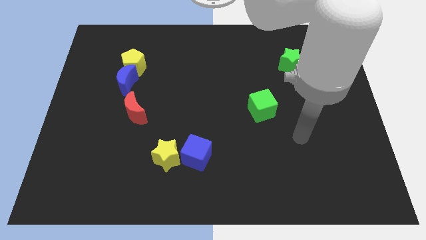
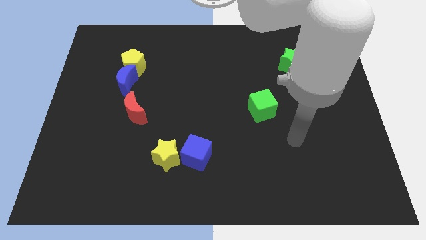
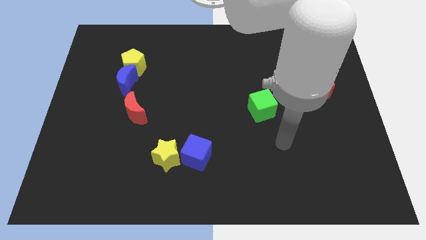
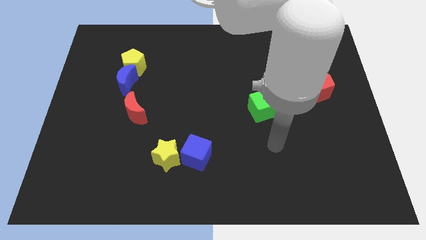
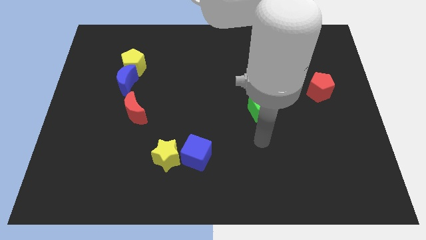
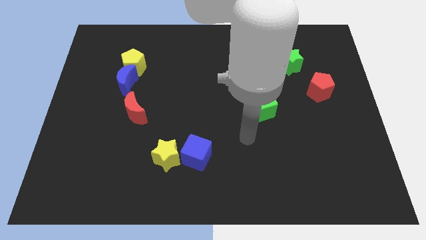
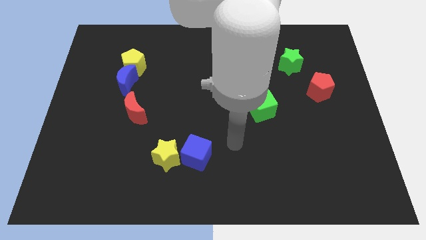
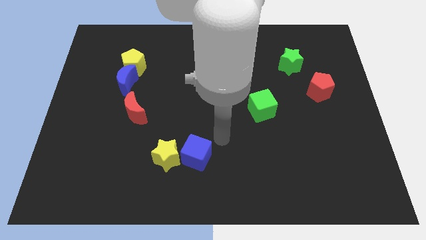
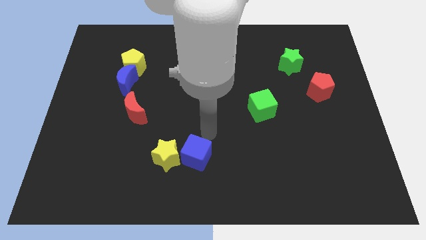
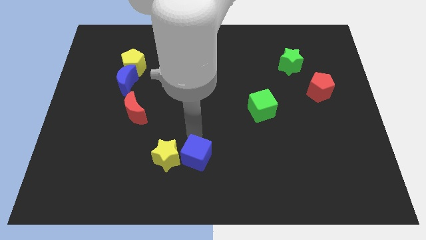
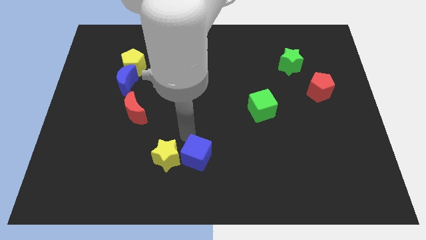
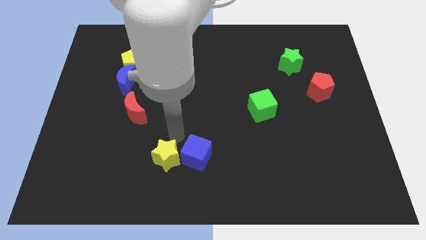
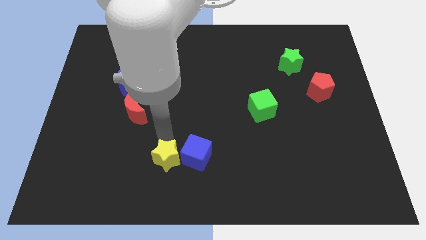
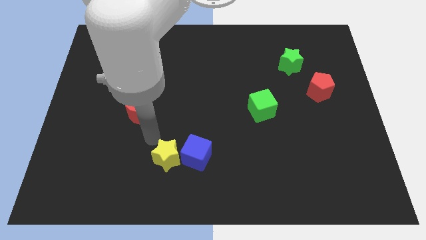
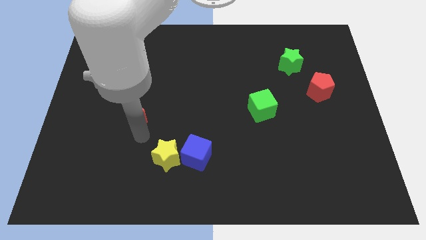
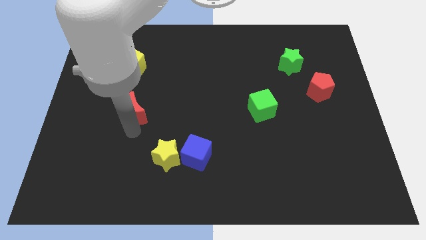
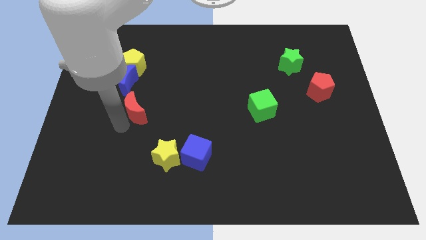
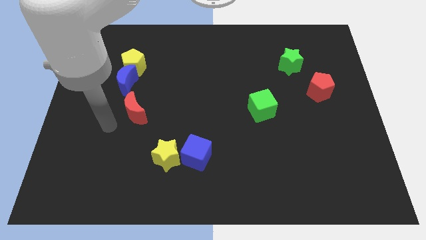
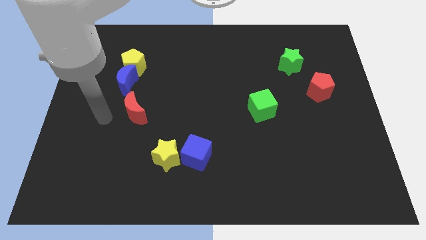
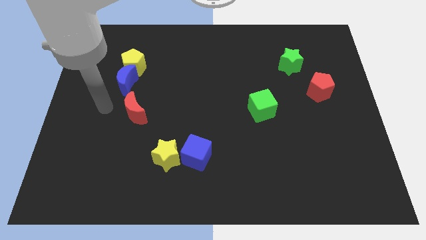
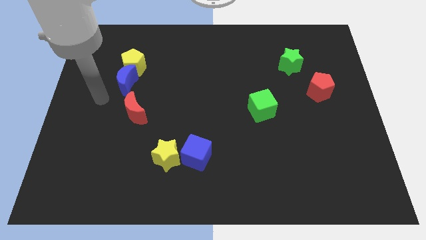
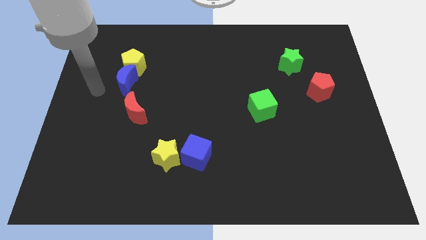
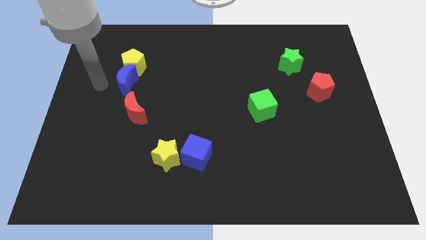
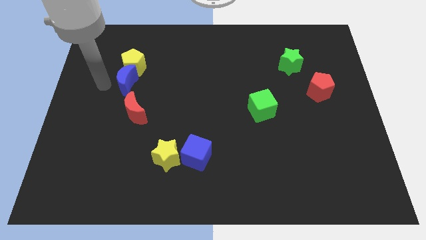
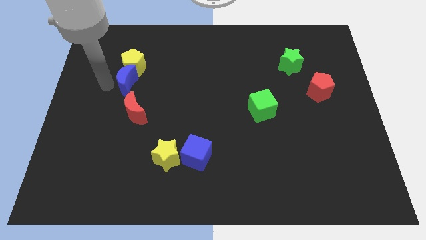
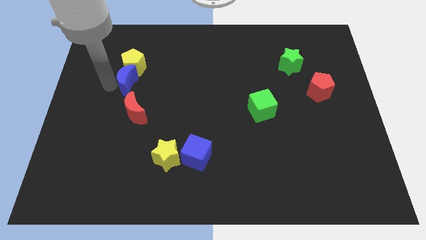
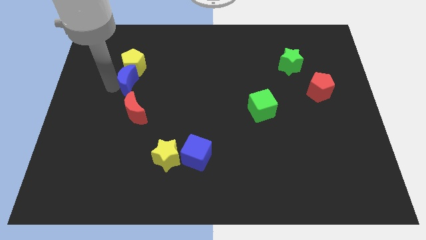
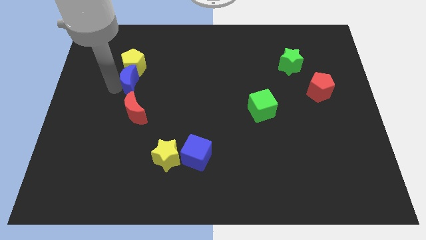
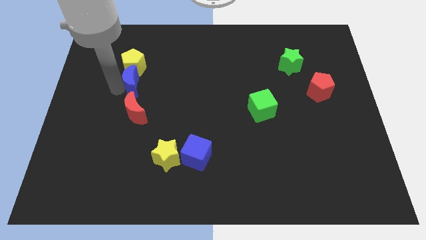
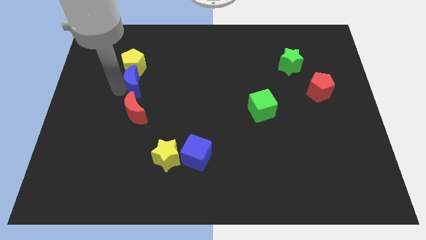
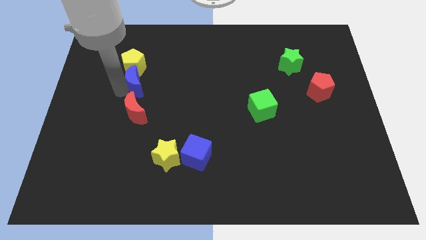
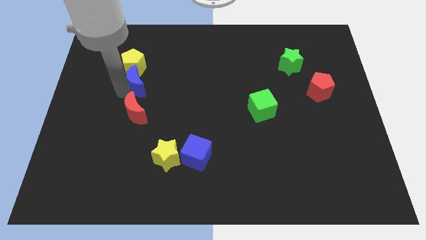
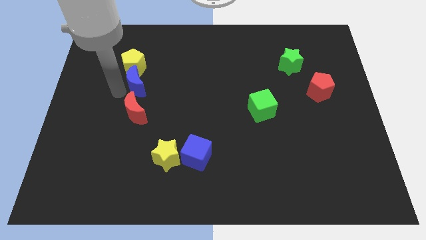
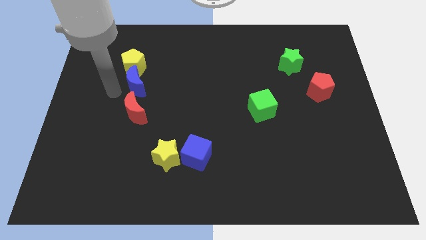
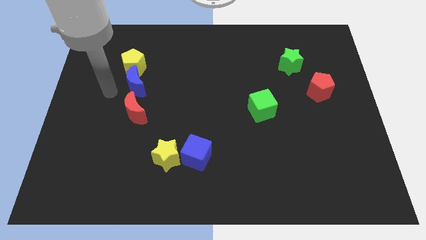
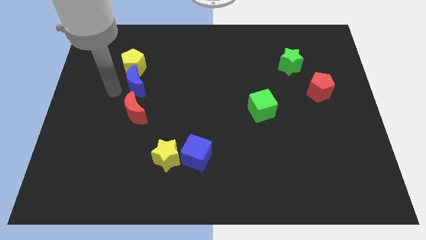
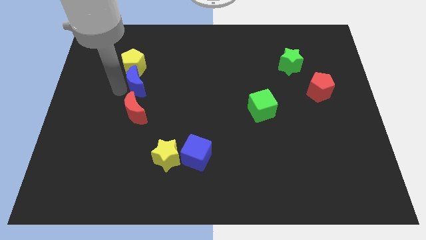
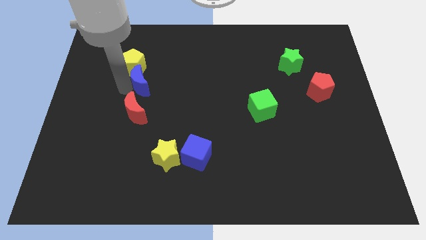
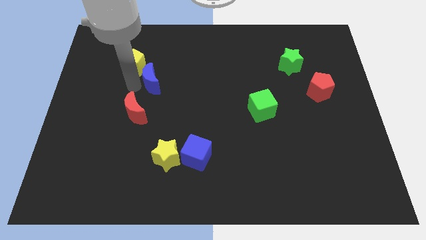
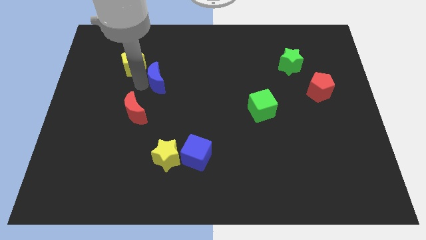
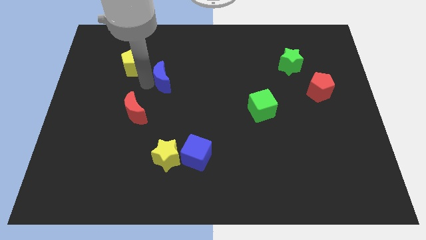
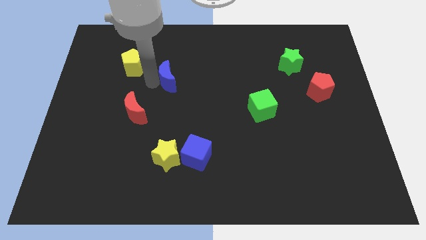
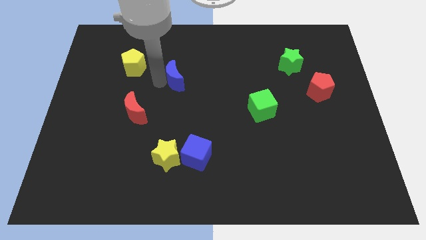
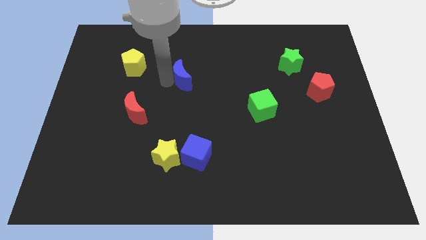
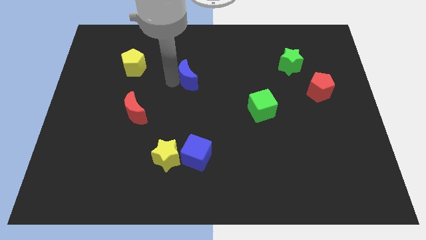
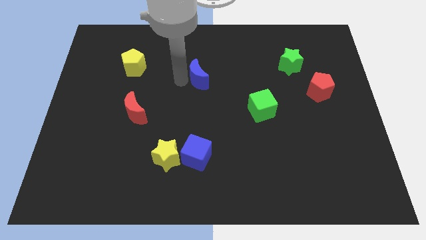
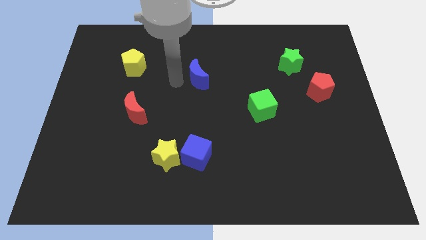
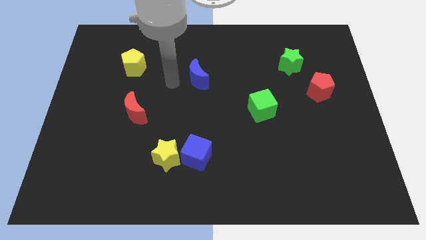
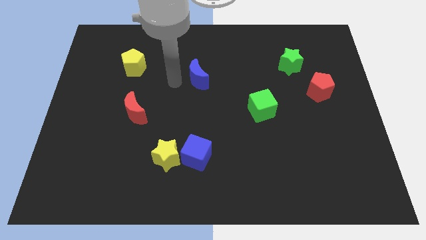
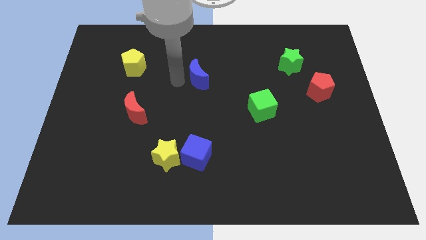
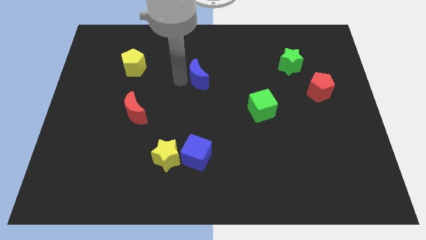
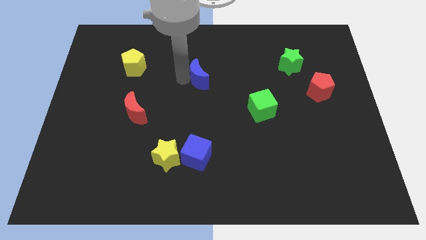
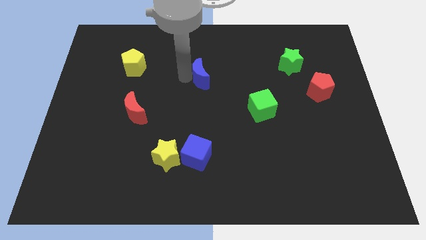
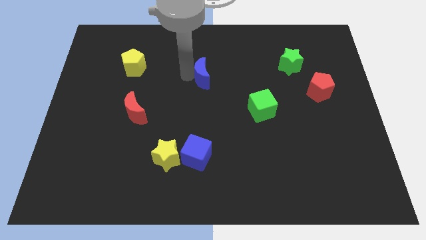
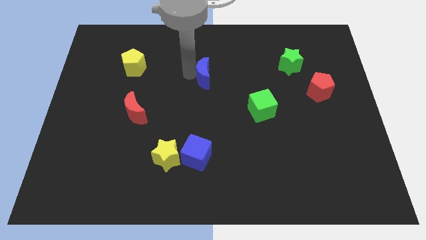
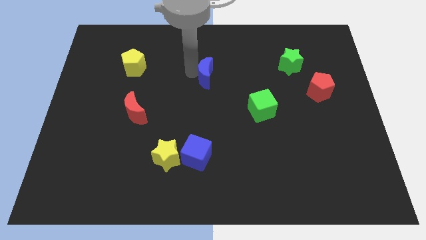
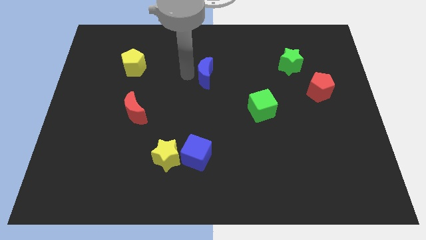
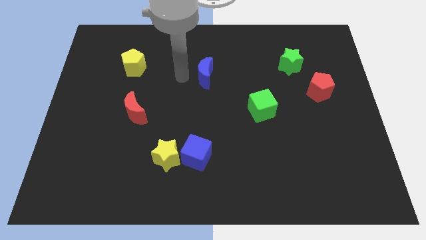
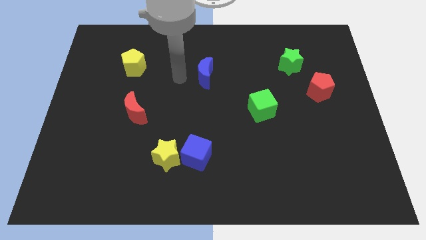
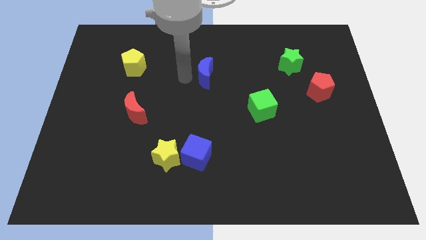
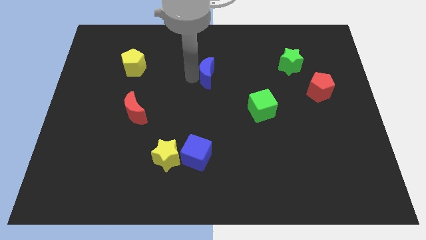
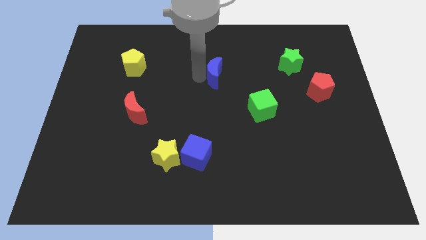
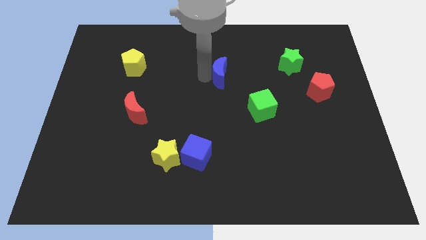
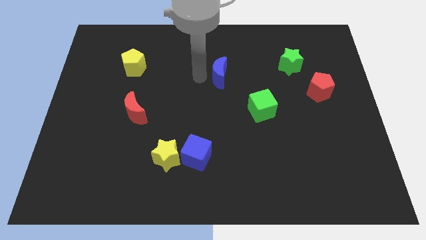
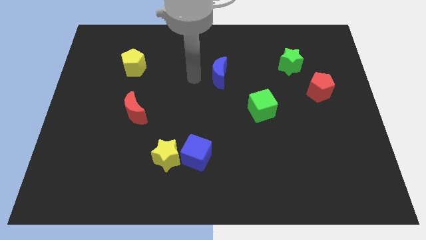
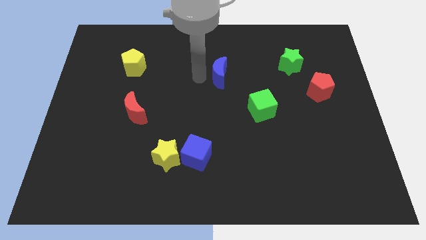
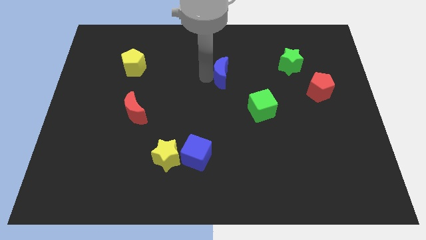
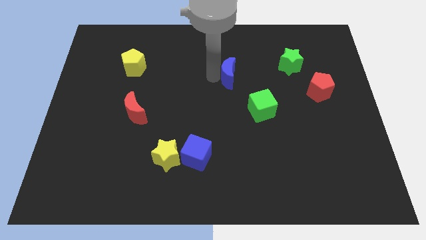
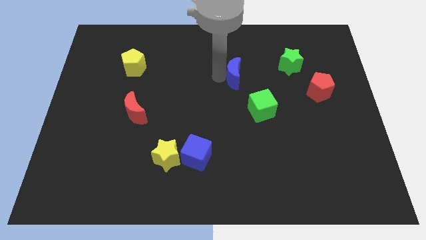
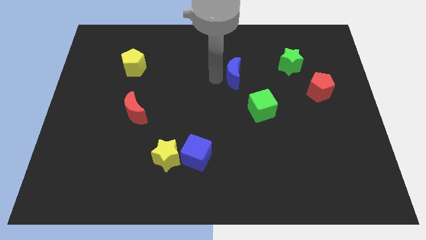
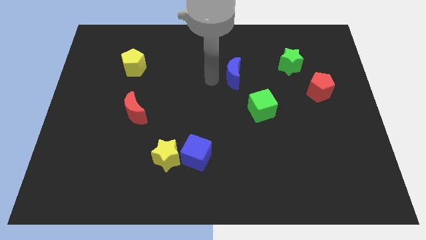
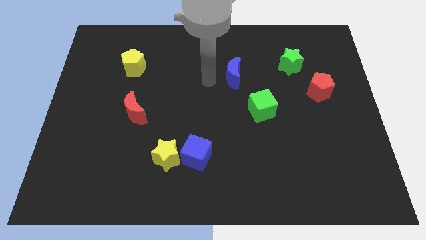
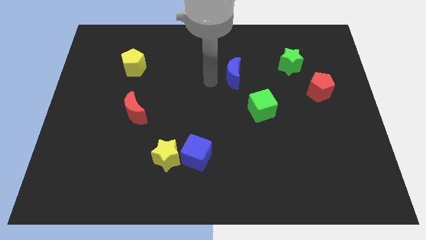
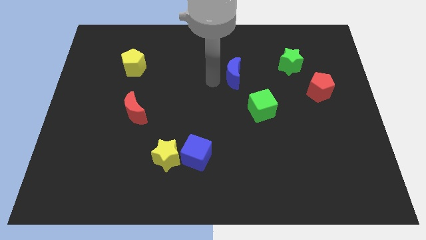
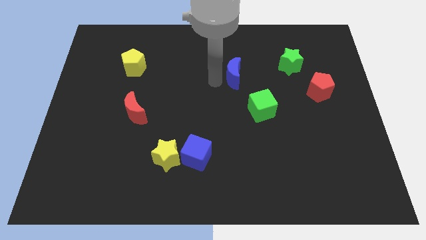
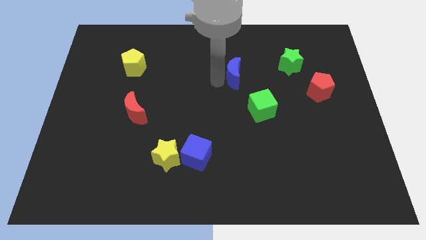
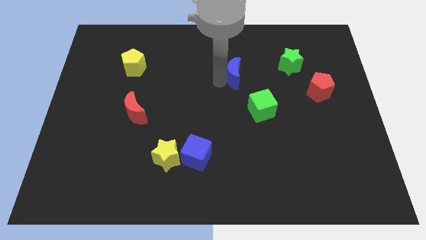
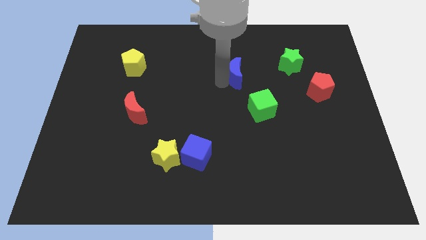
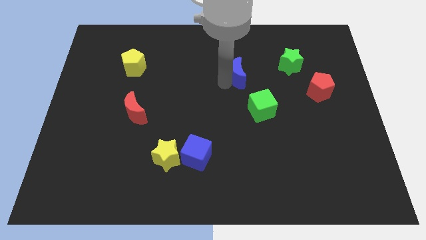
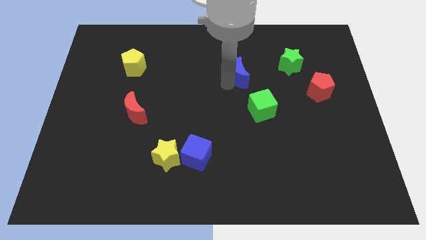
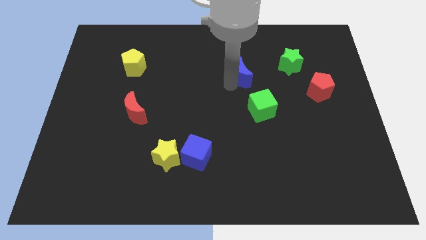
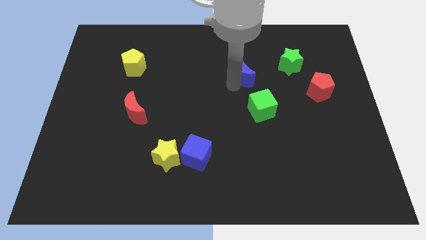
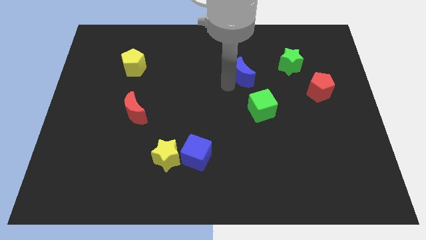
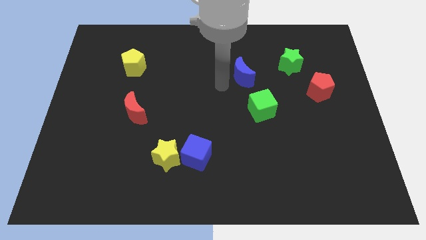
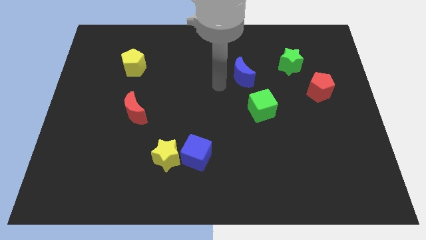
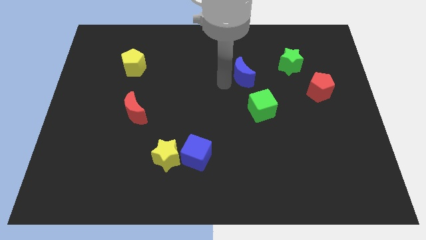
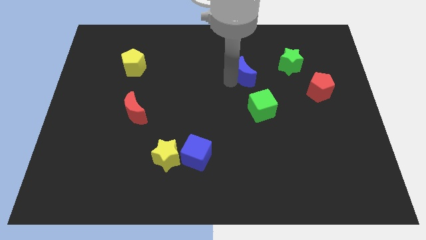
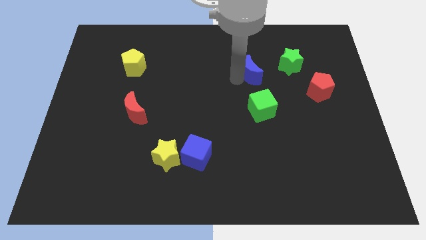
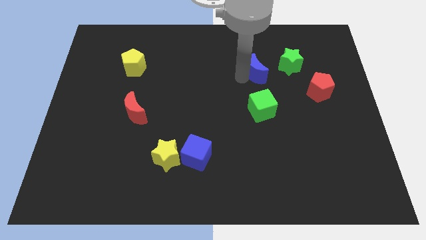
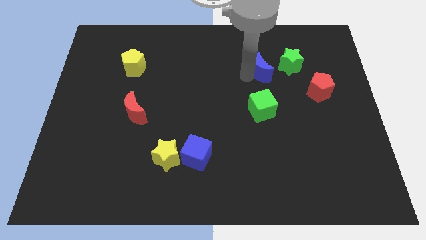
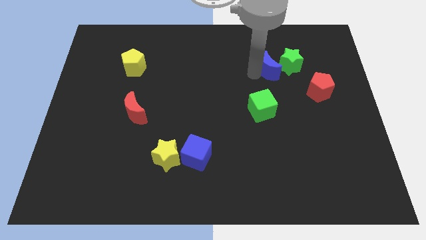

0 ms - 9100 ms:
slide the blue moon close to the green star
